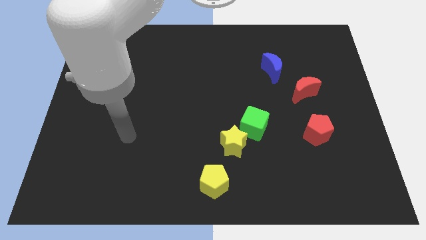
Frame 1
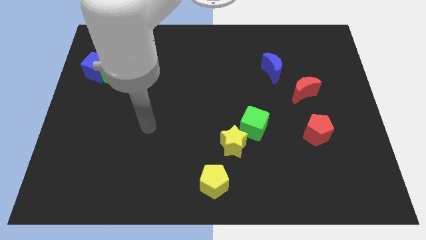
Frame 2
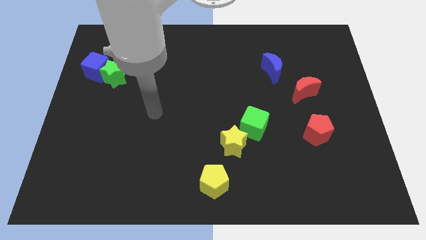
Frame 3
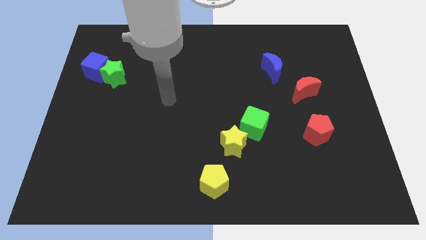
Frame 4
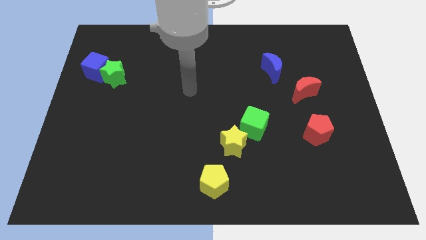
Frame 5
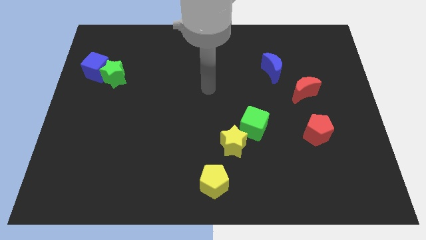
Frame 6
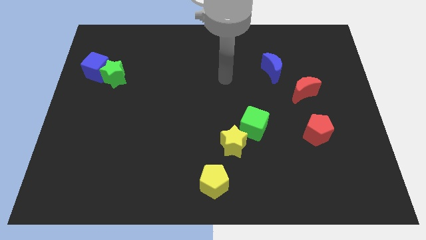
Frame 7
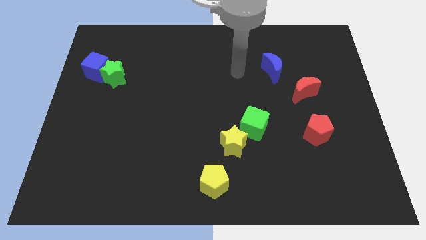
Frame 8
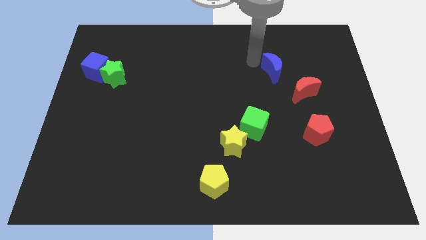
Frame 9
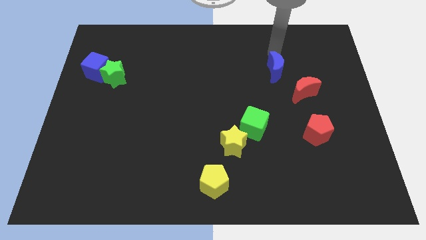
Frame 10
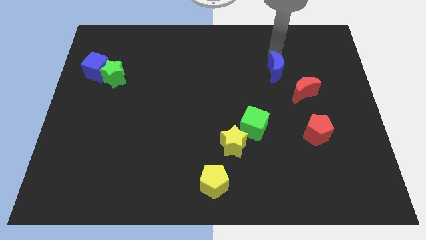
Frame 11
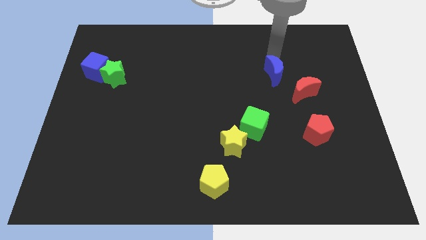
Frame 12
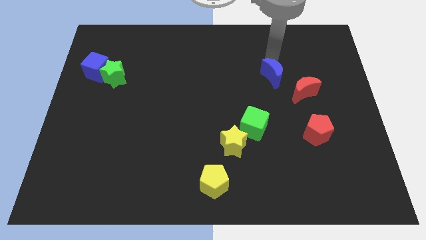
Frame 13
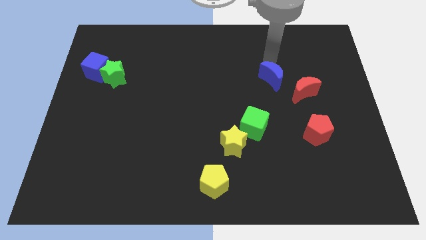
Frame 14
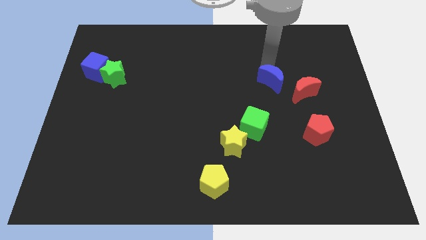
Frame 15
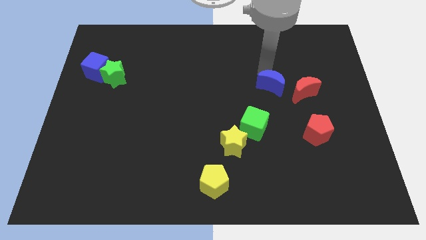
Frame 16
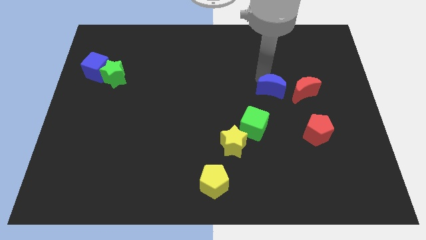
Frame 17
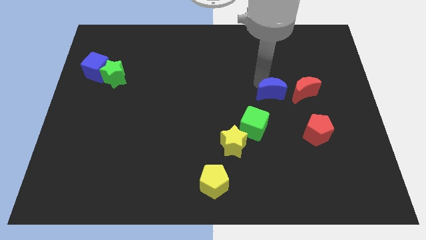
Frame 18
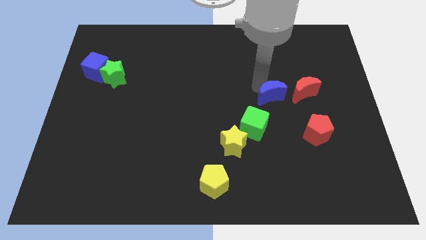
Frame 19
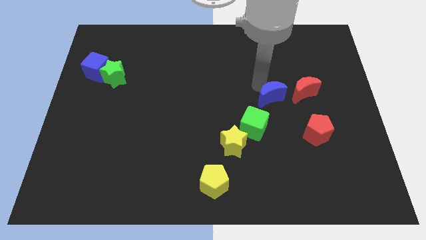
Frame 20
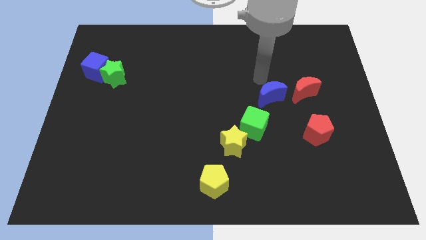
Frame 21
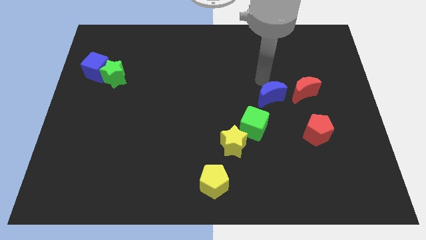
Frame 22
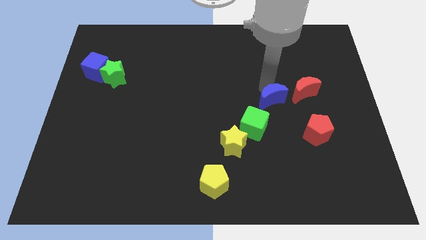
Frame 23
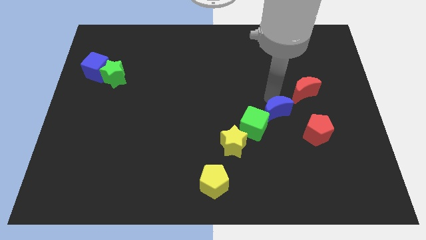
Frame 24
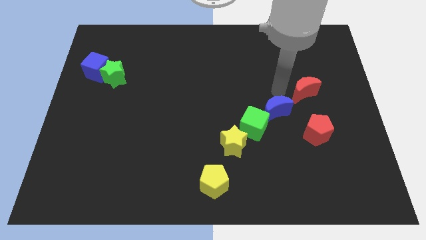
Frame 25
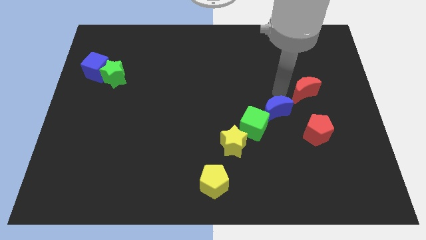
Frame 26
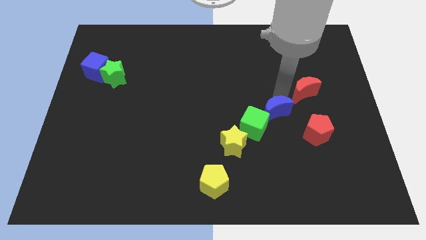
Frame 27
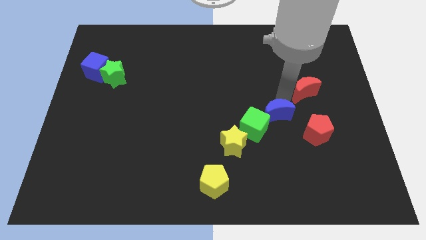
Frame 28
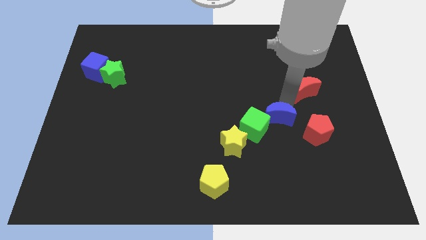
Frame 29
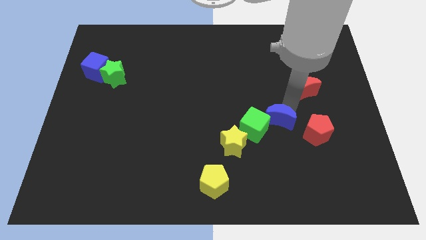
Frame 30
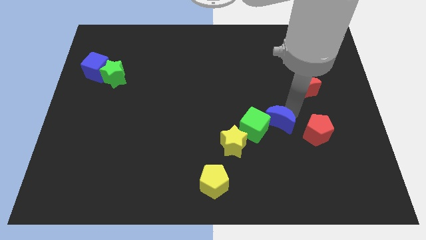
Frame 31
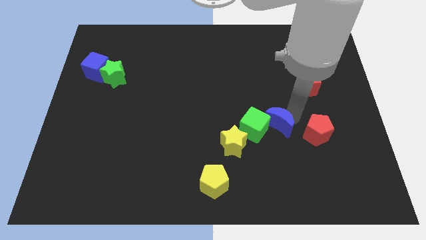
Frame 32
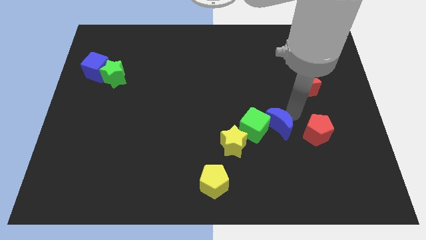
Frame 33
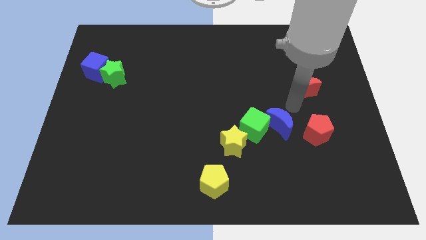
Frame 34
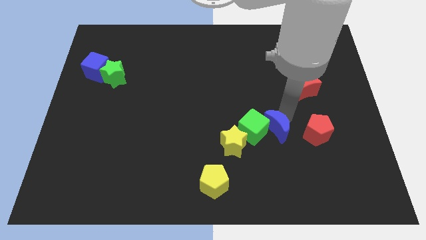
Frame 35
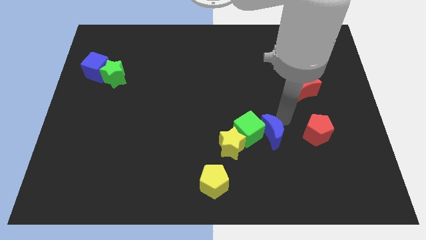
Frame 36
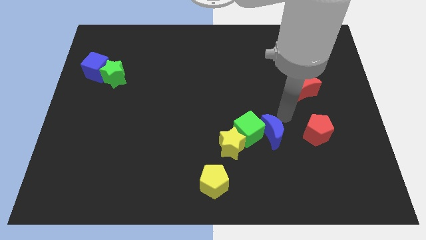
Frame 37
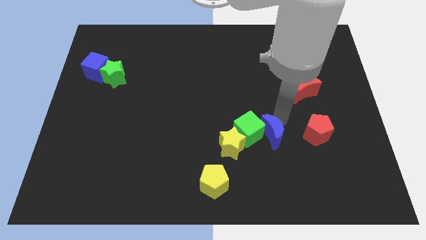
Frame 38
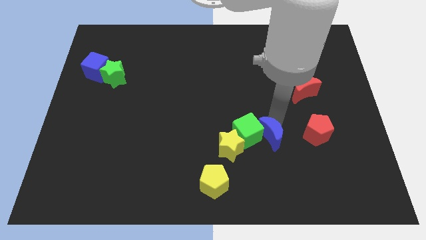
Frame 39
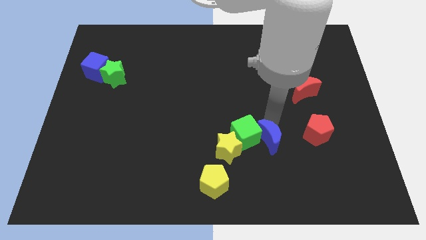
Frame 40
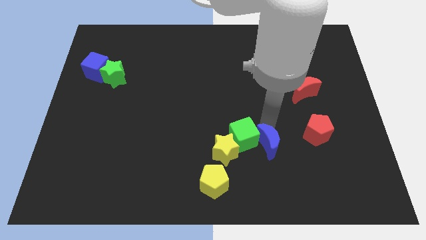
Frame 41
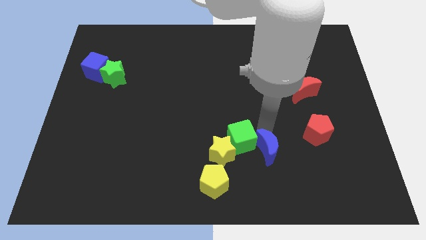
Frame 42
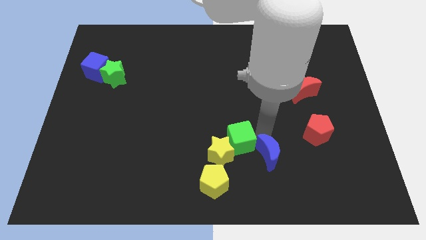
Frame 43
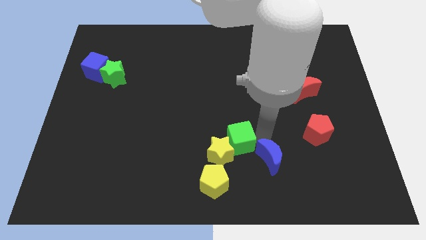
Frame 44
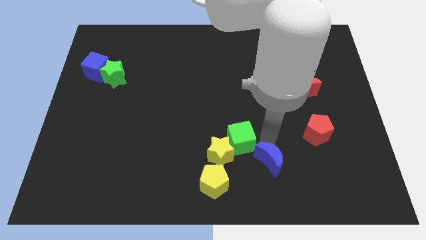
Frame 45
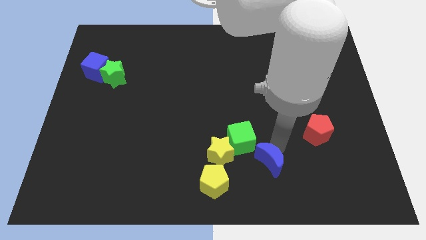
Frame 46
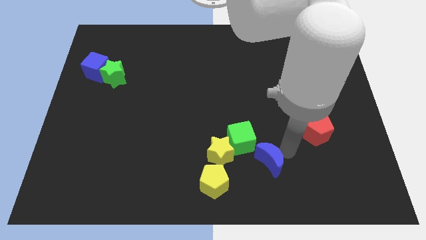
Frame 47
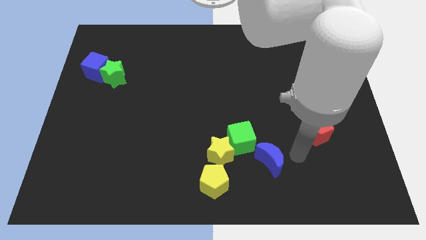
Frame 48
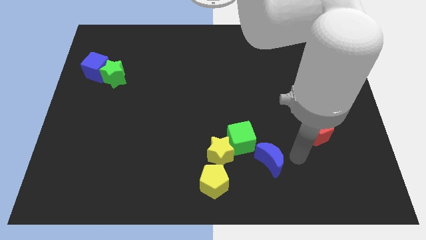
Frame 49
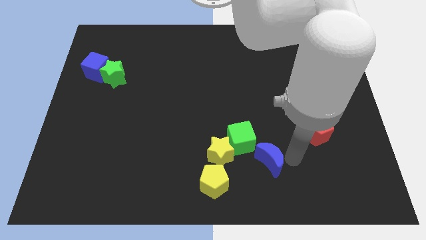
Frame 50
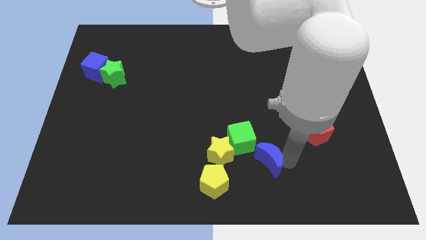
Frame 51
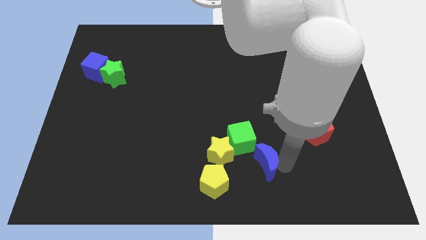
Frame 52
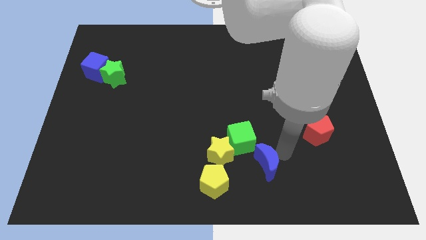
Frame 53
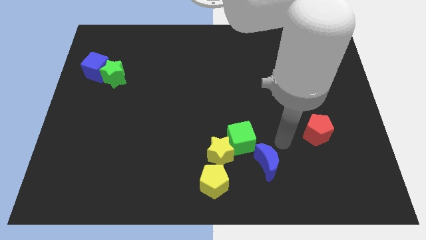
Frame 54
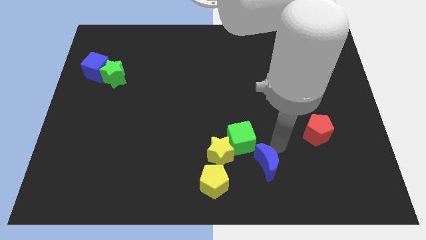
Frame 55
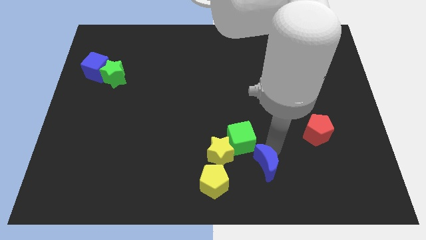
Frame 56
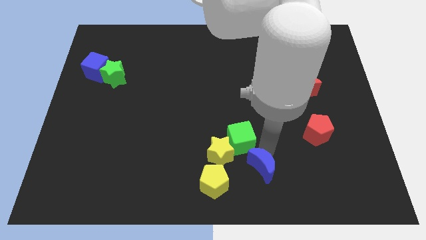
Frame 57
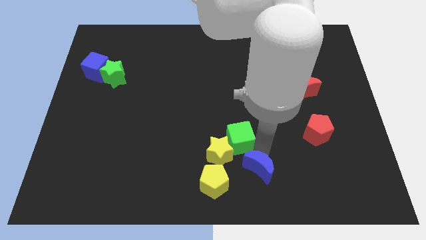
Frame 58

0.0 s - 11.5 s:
put the blue moon to the bottom side
